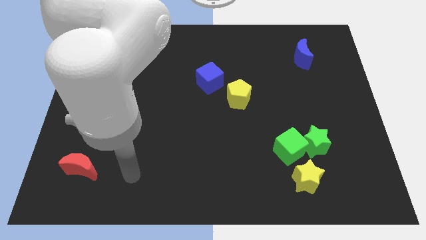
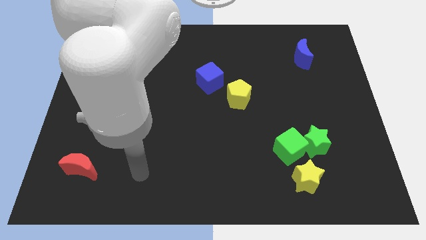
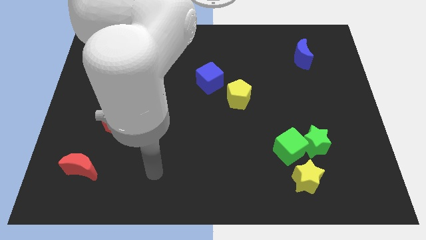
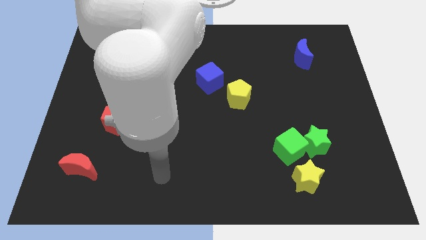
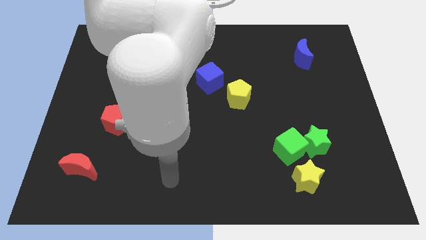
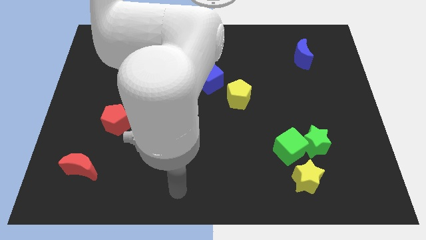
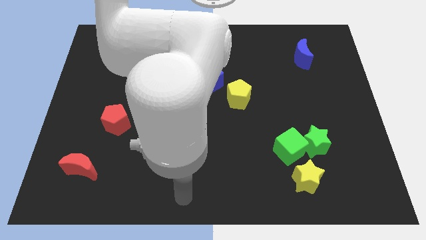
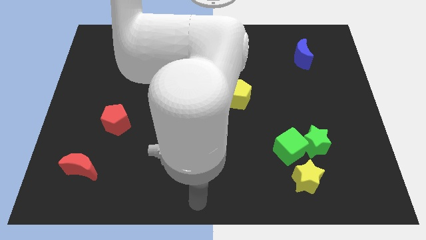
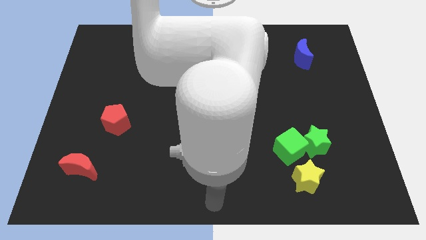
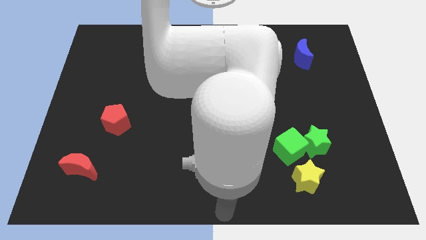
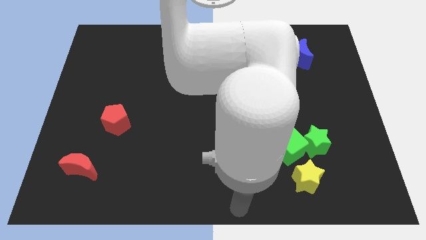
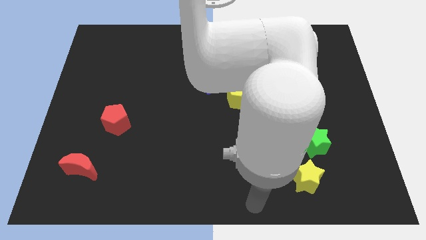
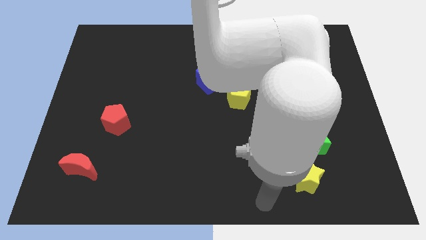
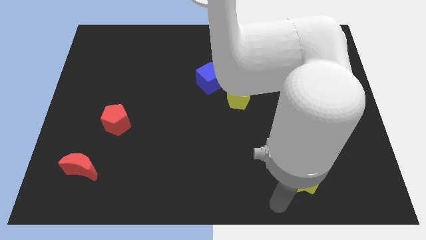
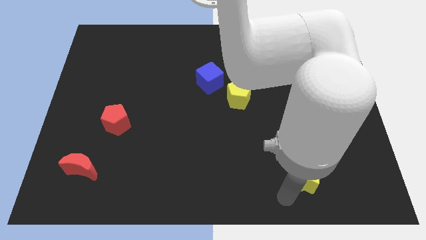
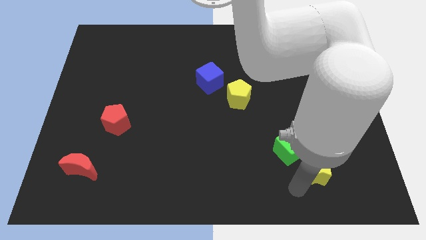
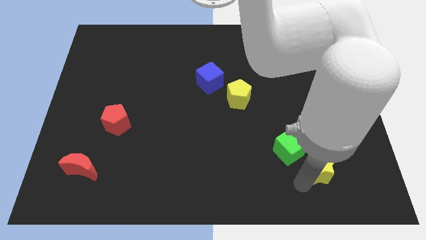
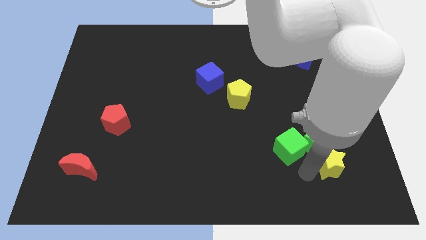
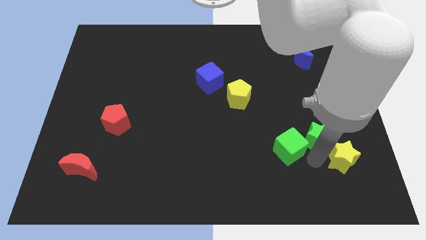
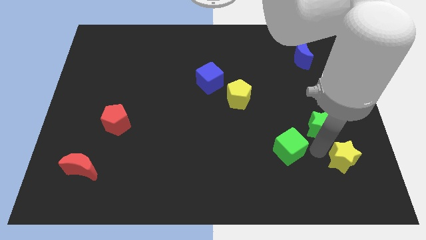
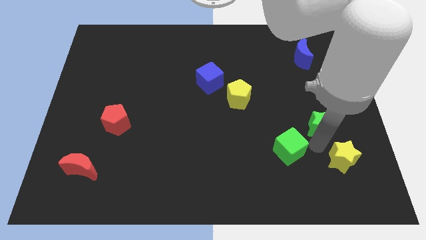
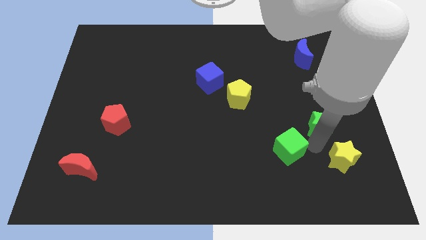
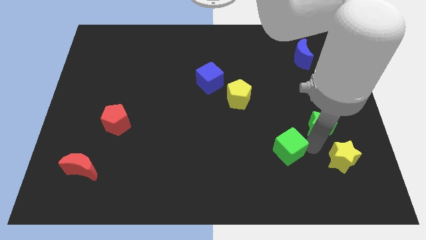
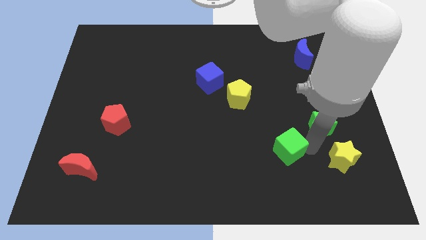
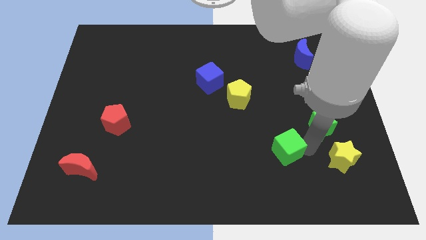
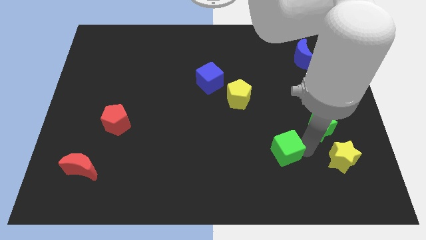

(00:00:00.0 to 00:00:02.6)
move the green cube away from the green star and yellow star

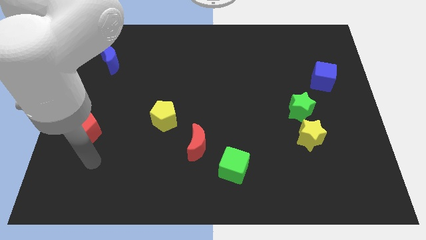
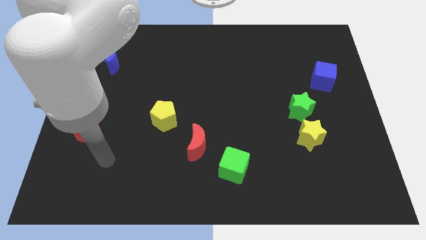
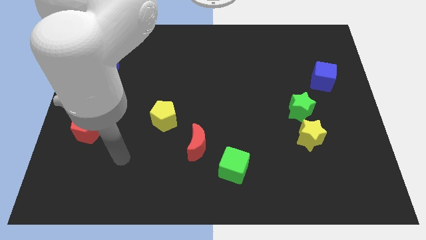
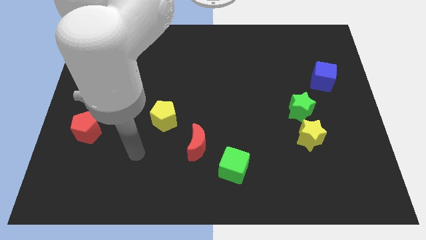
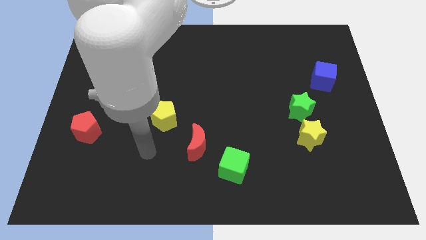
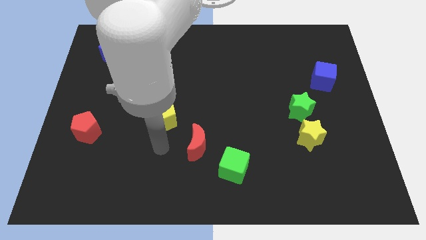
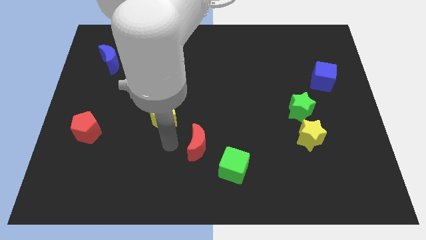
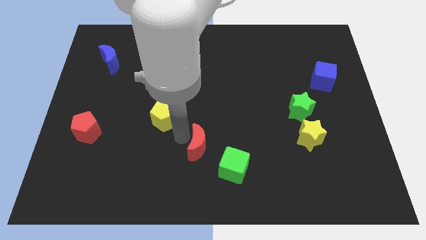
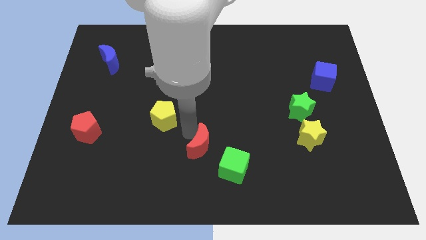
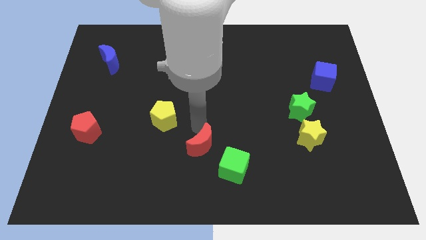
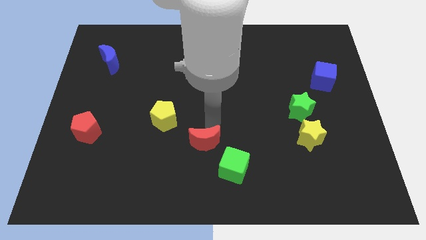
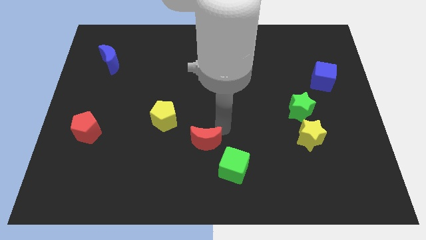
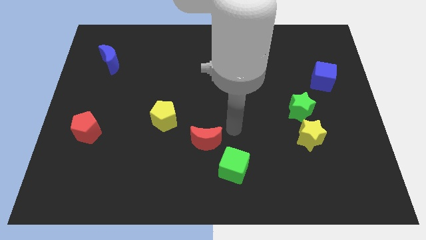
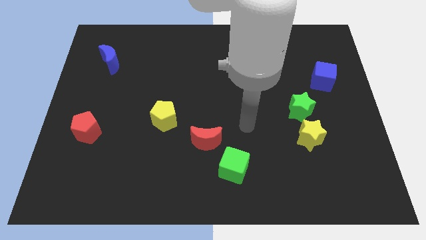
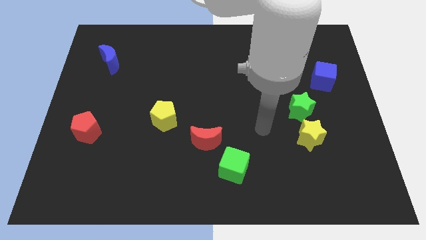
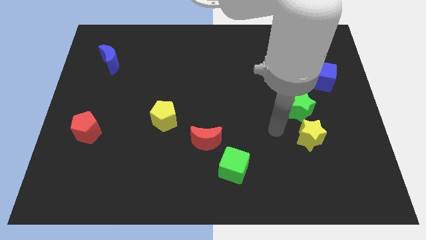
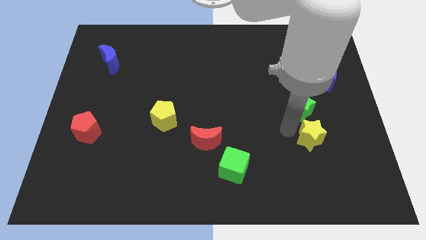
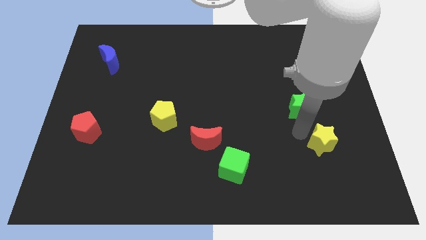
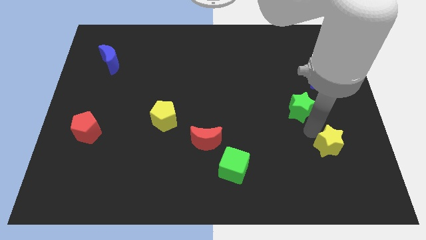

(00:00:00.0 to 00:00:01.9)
pull the green star apart from the yellow star

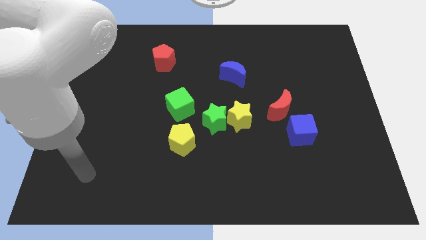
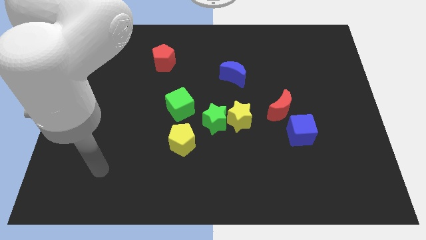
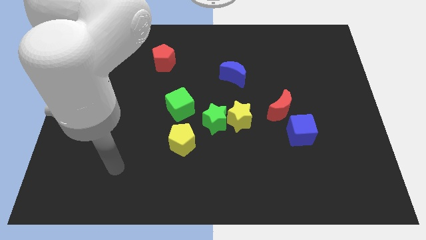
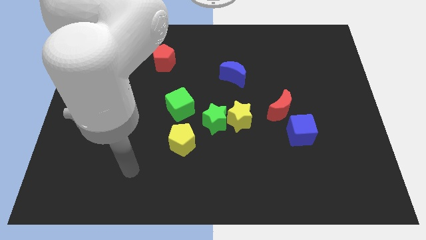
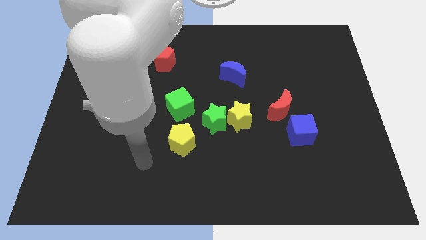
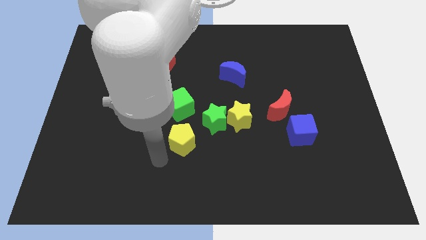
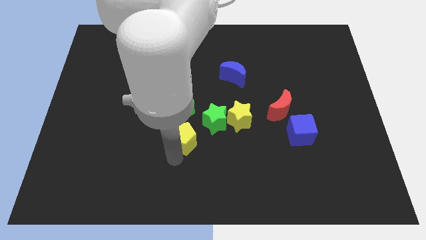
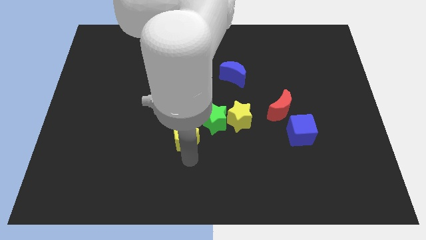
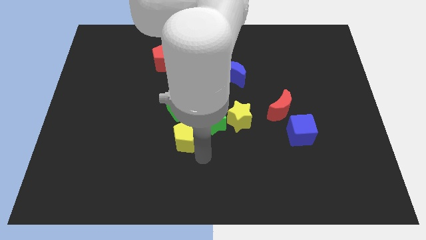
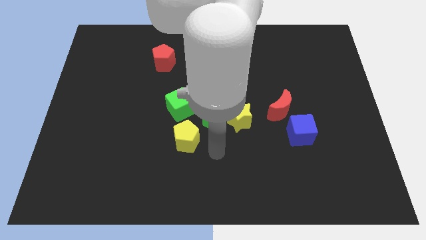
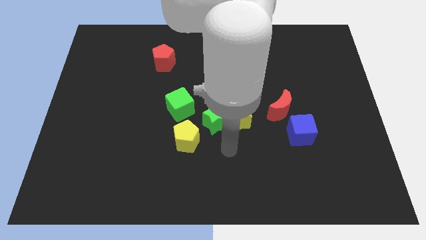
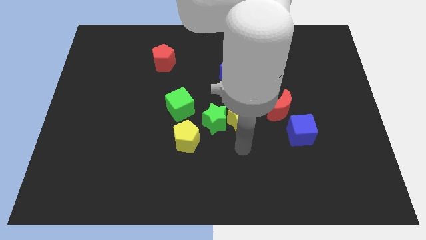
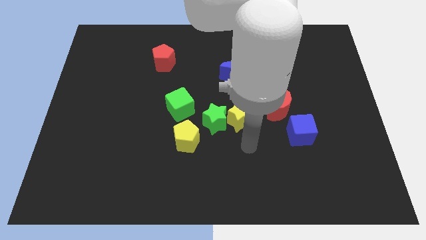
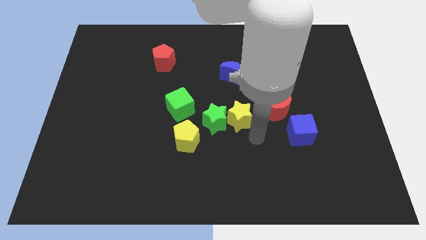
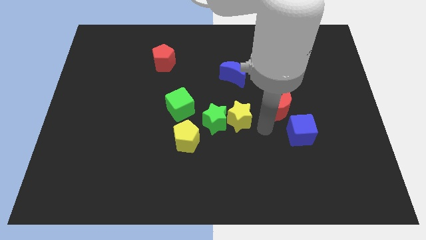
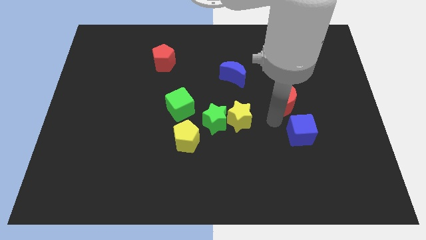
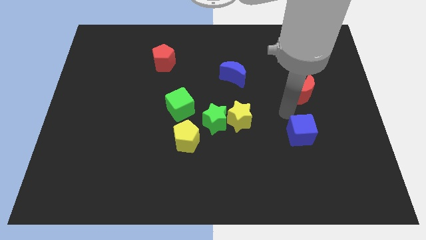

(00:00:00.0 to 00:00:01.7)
pull the blue cube apart from the red moon

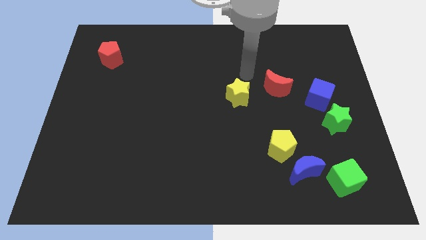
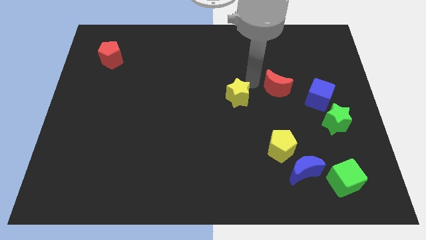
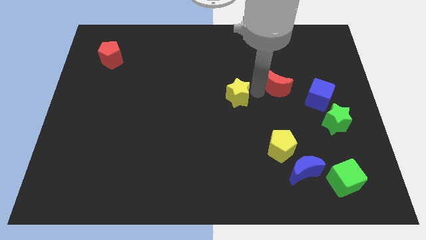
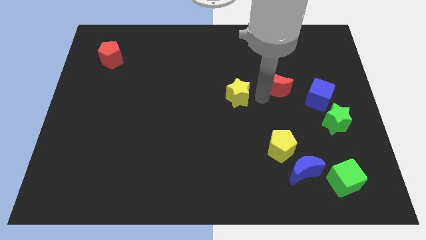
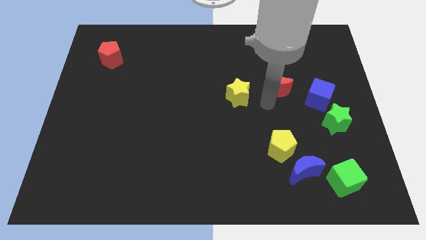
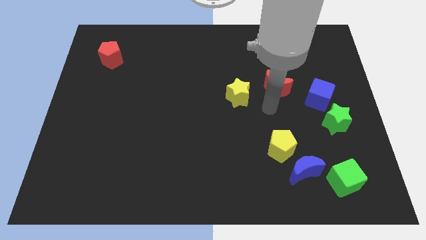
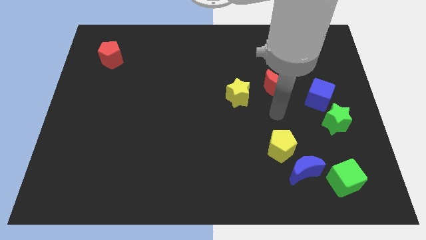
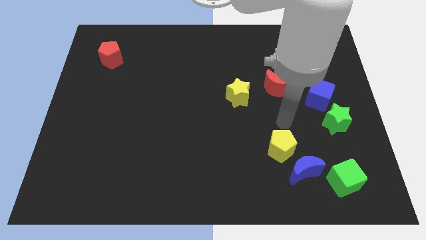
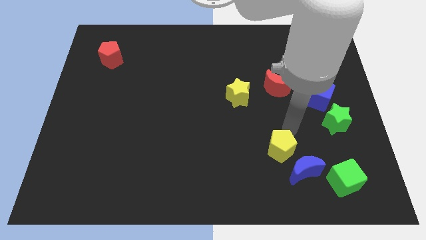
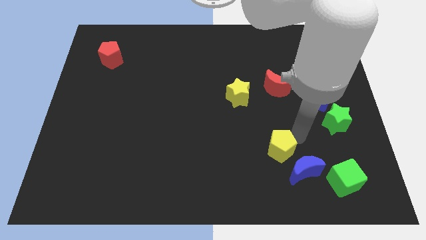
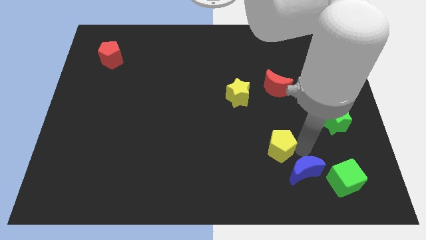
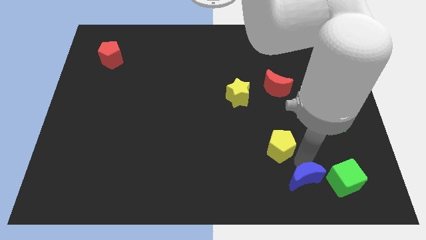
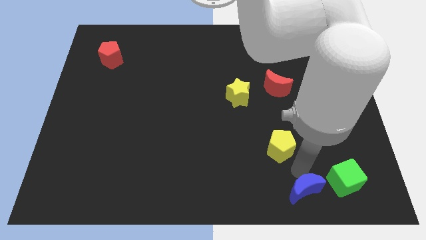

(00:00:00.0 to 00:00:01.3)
pull the yellow pentagon apart from the blue moon

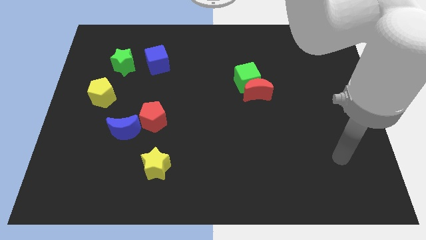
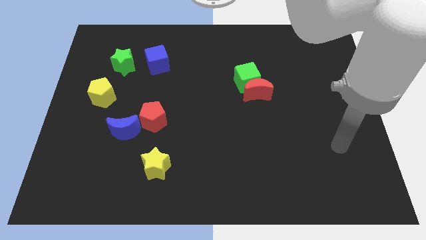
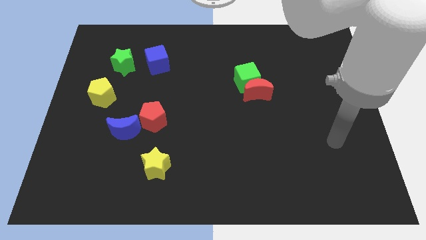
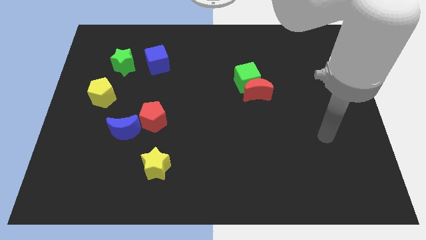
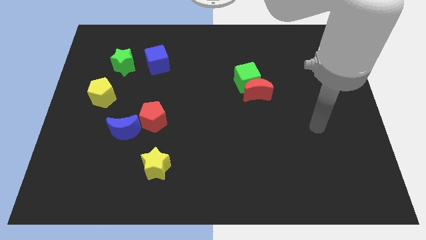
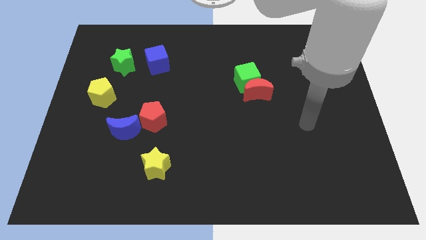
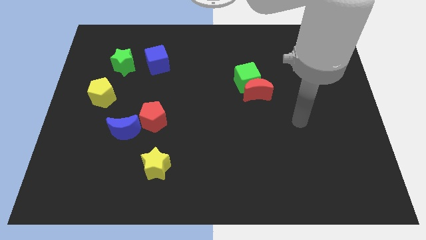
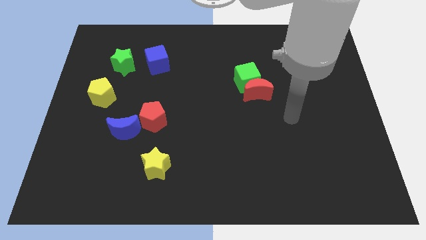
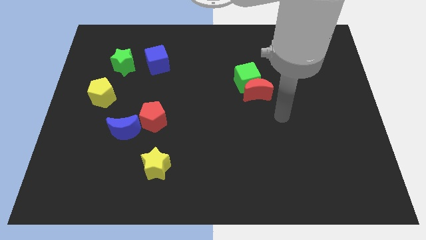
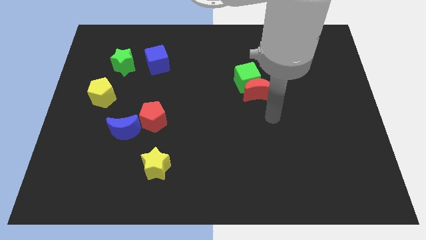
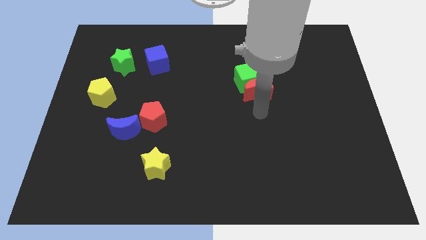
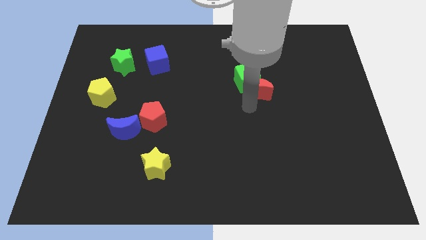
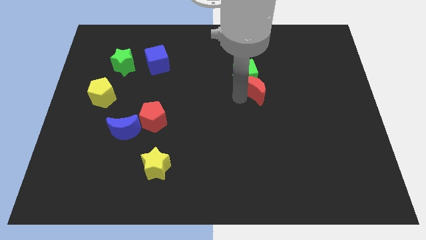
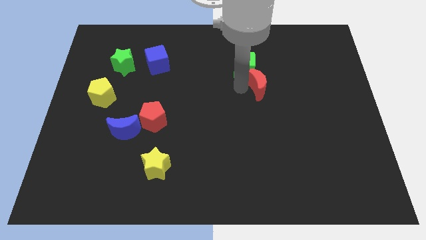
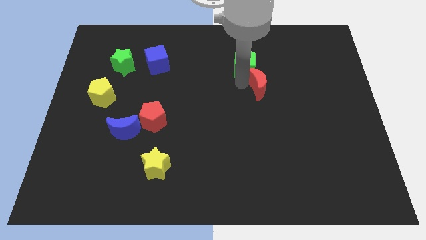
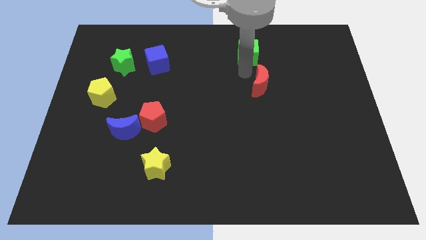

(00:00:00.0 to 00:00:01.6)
pull the red moon apart from the green cube

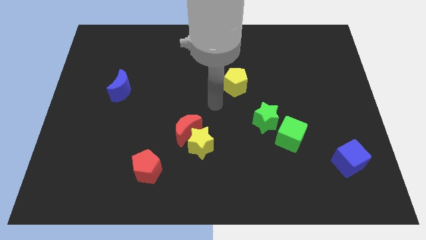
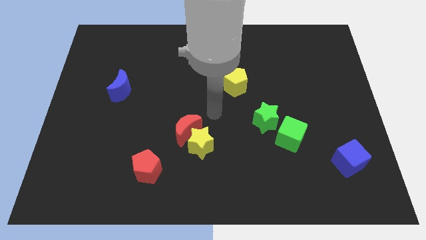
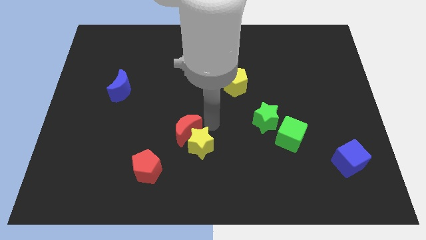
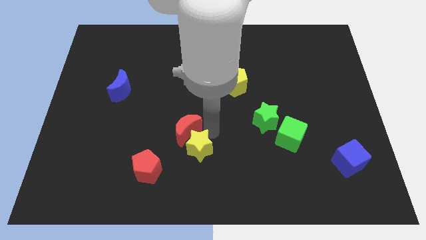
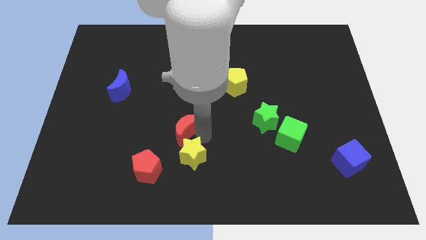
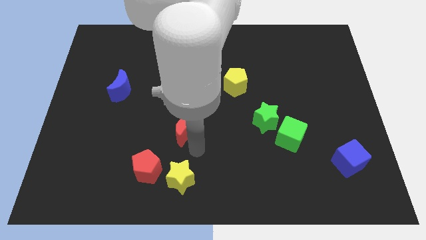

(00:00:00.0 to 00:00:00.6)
move the red moon away from the yellow star
